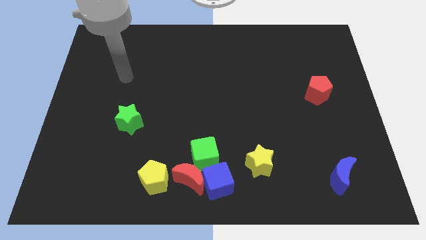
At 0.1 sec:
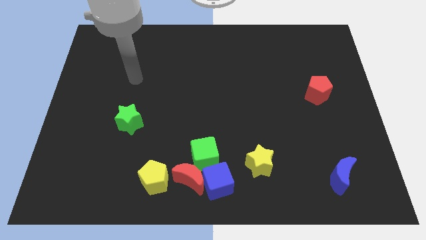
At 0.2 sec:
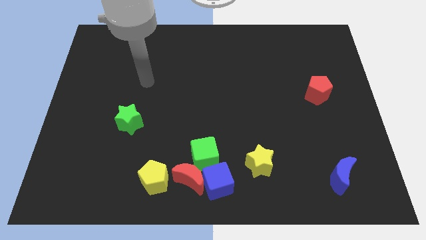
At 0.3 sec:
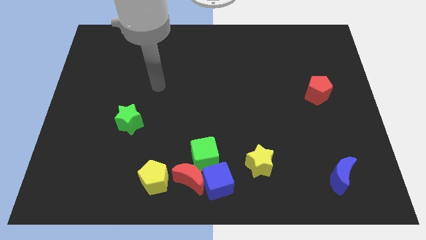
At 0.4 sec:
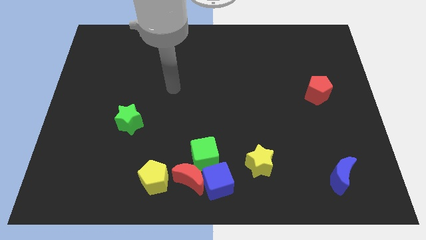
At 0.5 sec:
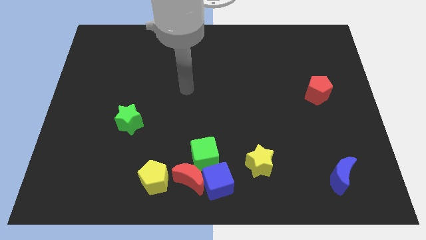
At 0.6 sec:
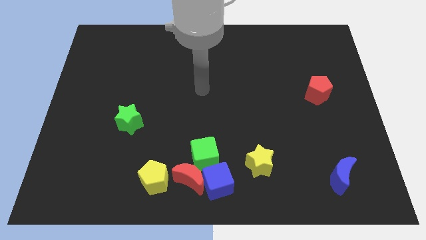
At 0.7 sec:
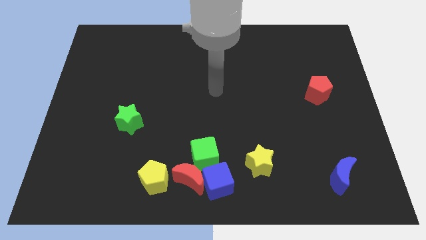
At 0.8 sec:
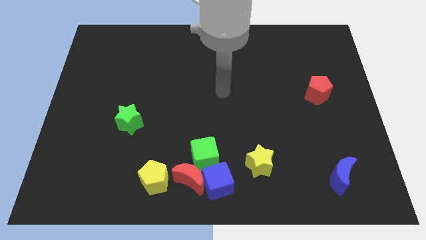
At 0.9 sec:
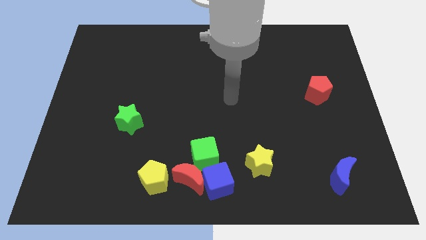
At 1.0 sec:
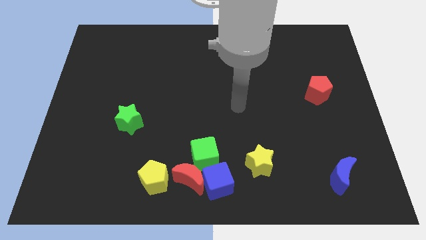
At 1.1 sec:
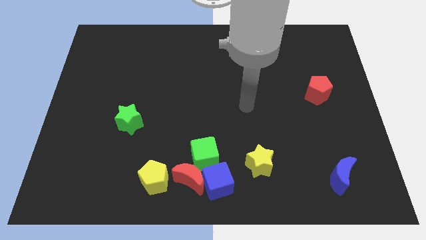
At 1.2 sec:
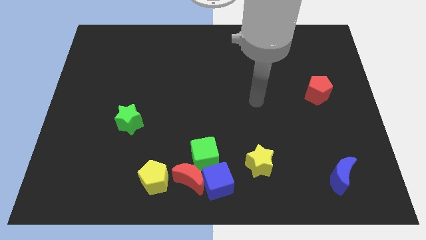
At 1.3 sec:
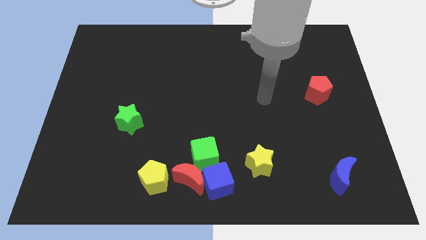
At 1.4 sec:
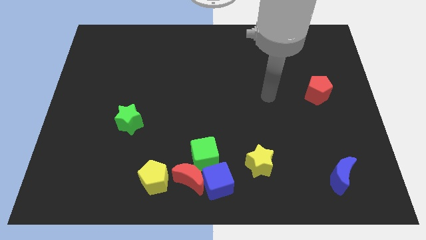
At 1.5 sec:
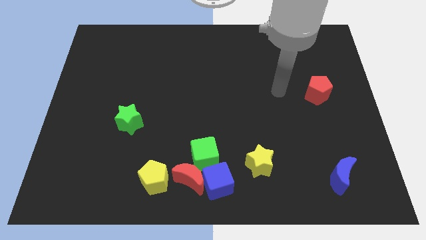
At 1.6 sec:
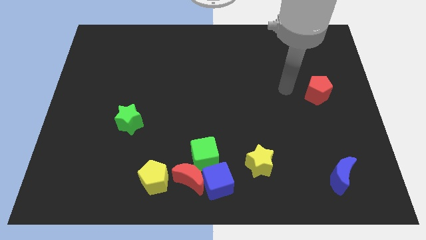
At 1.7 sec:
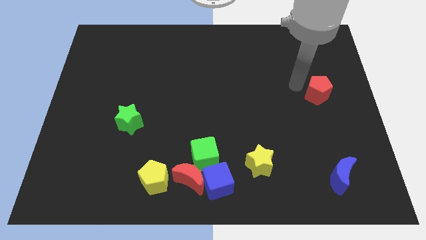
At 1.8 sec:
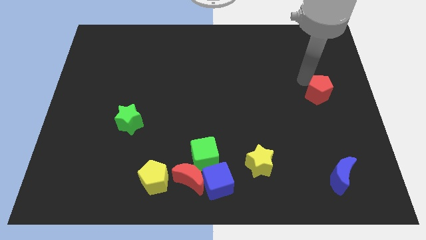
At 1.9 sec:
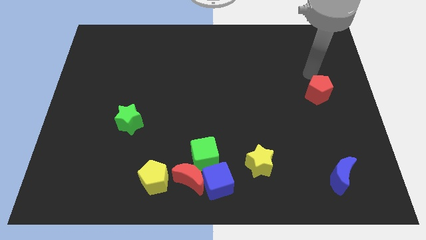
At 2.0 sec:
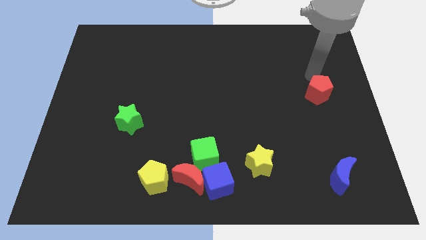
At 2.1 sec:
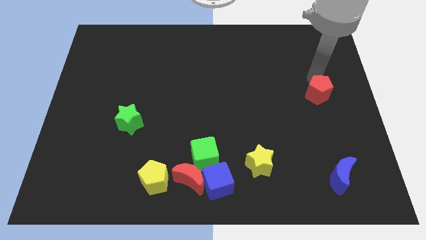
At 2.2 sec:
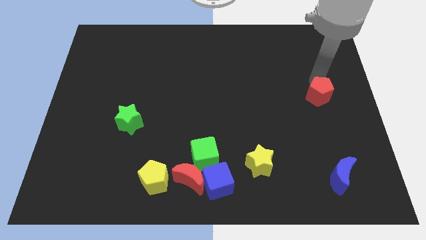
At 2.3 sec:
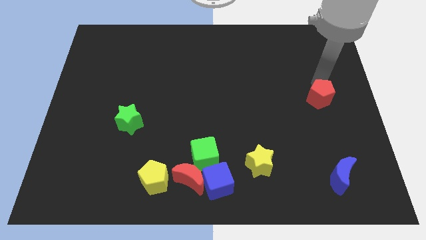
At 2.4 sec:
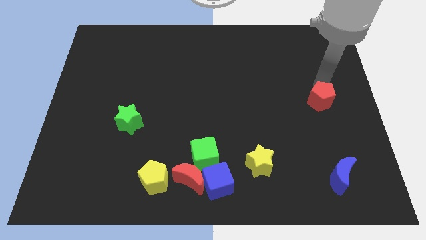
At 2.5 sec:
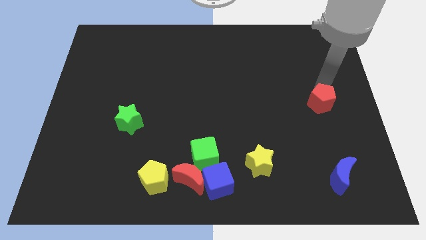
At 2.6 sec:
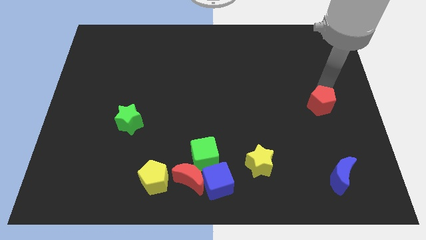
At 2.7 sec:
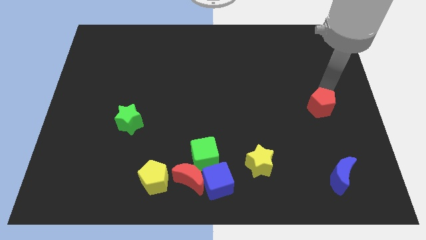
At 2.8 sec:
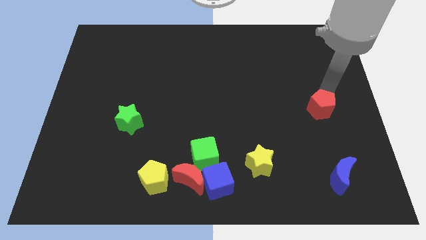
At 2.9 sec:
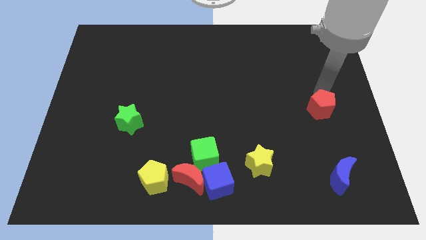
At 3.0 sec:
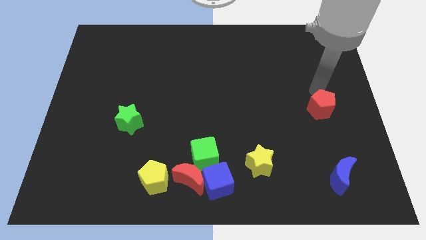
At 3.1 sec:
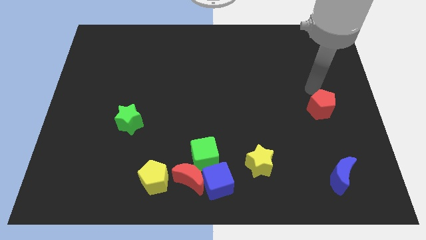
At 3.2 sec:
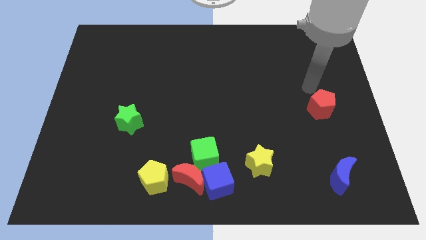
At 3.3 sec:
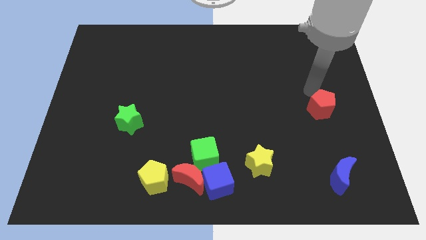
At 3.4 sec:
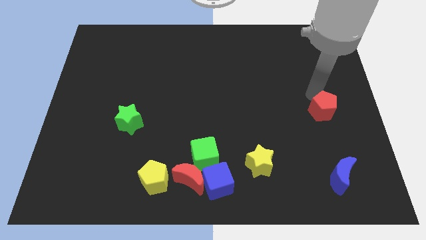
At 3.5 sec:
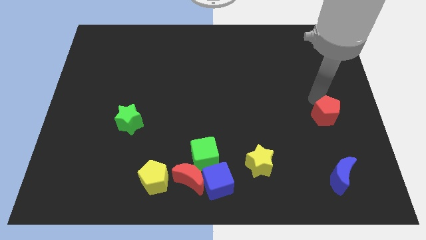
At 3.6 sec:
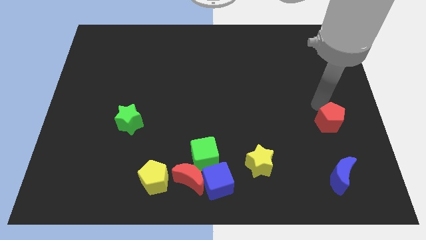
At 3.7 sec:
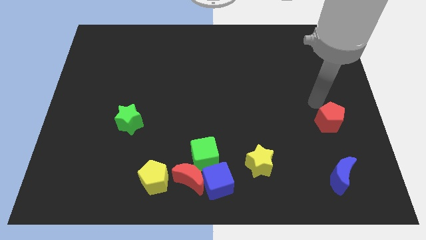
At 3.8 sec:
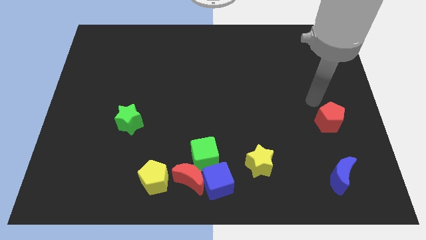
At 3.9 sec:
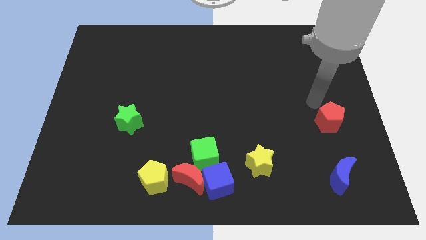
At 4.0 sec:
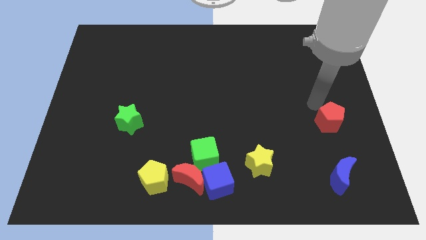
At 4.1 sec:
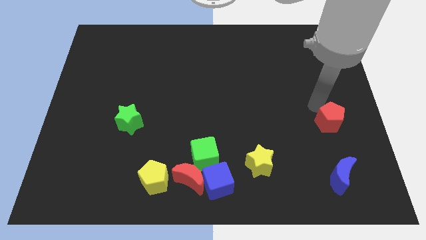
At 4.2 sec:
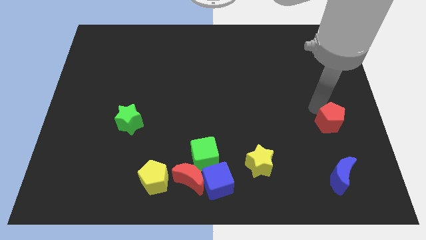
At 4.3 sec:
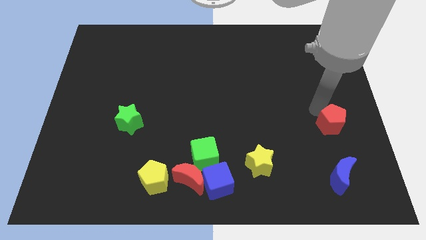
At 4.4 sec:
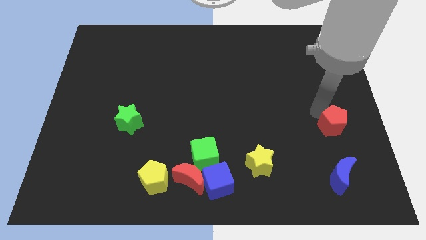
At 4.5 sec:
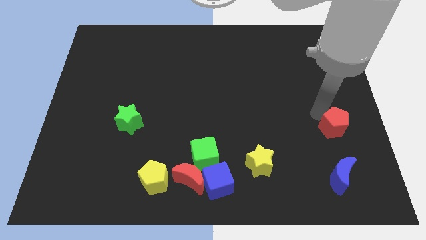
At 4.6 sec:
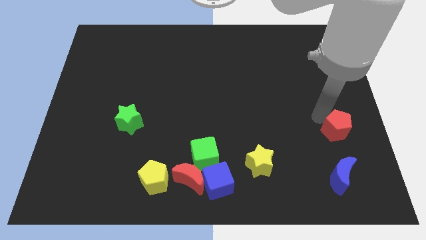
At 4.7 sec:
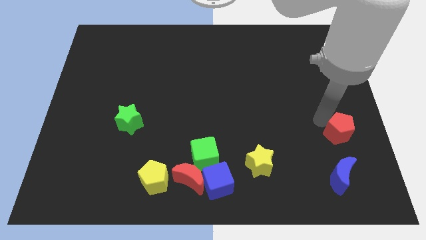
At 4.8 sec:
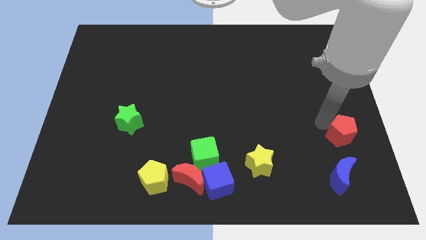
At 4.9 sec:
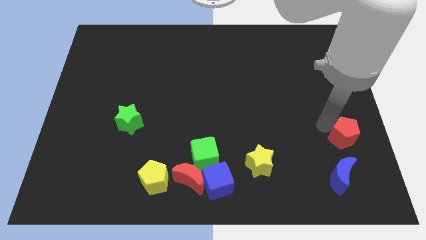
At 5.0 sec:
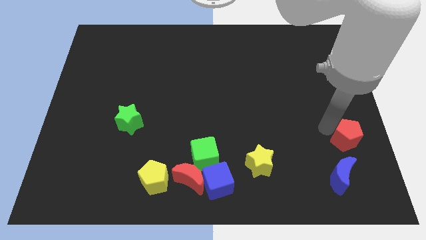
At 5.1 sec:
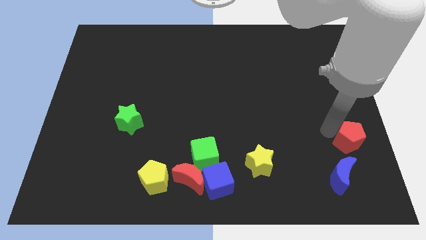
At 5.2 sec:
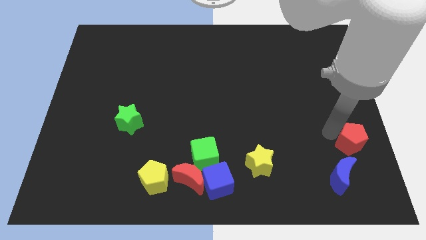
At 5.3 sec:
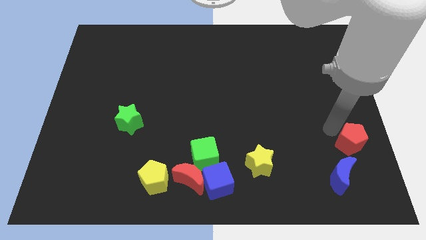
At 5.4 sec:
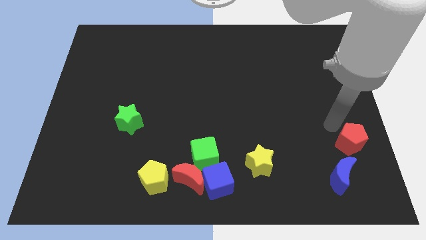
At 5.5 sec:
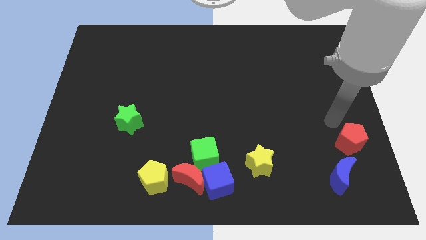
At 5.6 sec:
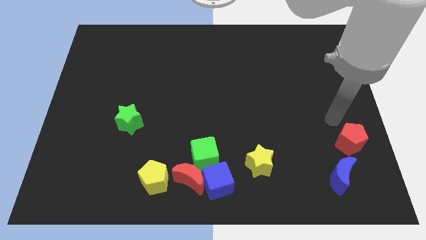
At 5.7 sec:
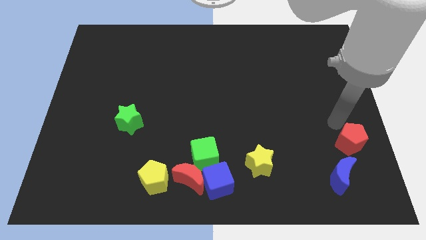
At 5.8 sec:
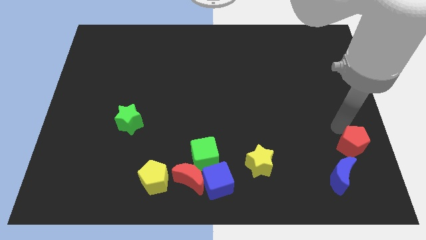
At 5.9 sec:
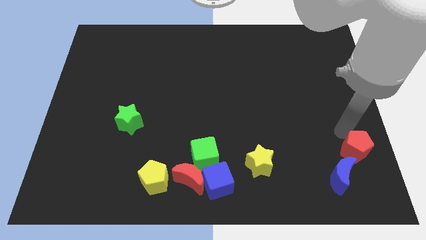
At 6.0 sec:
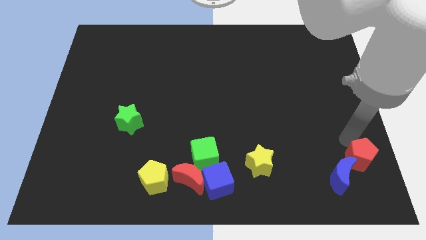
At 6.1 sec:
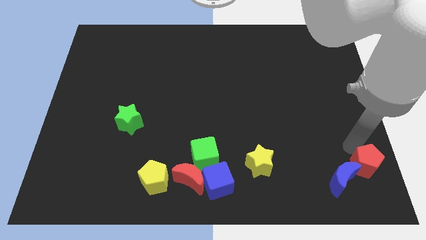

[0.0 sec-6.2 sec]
slide the red pentagon to the bottom right of the board
